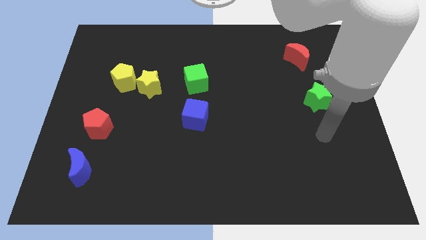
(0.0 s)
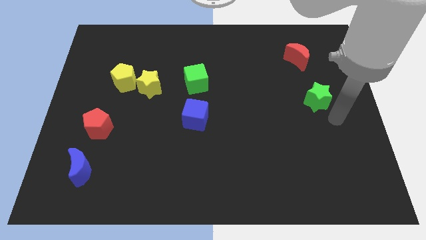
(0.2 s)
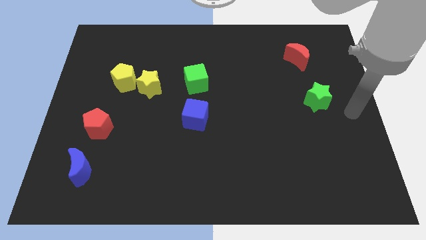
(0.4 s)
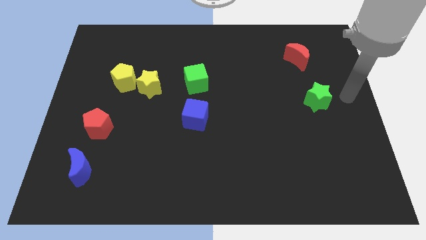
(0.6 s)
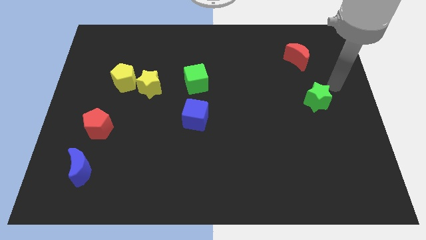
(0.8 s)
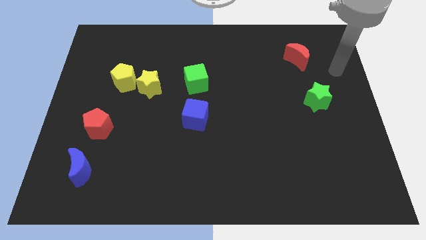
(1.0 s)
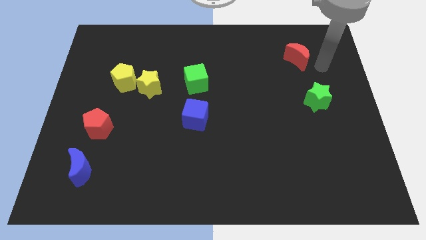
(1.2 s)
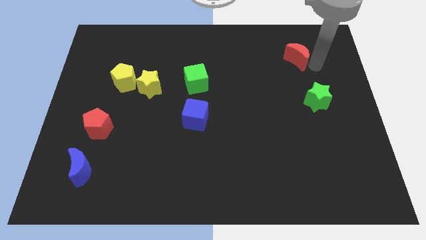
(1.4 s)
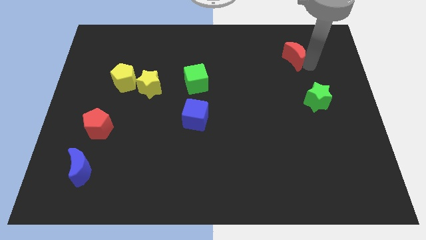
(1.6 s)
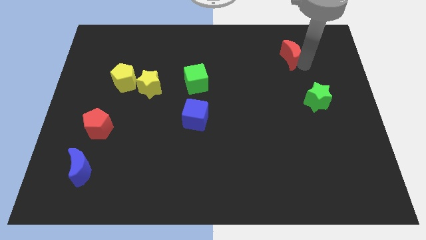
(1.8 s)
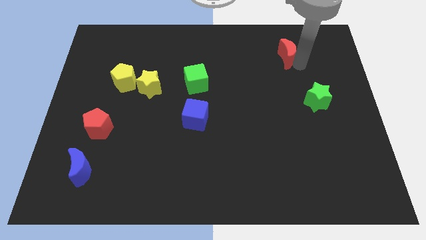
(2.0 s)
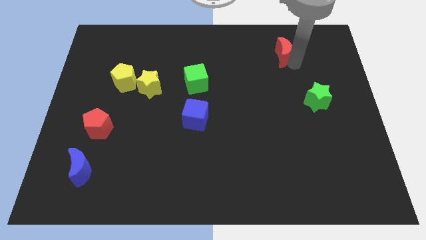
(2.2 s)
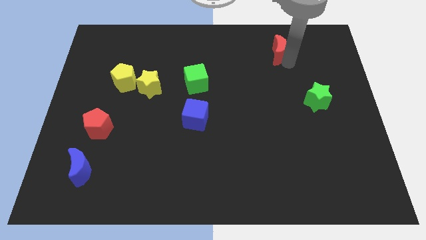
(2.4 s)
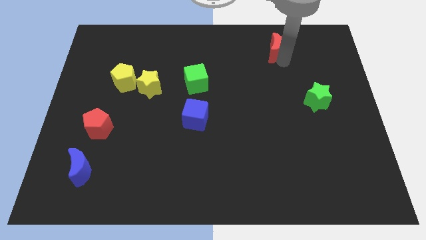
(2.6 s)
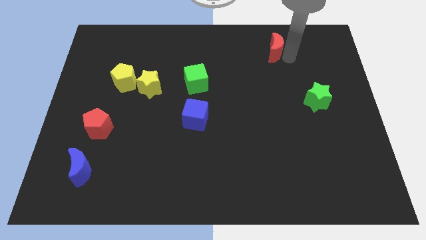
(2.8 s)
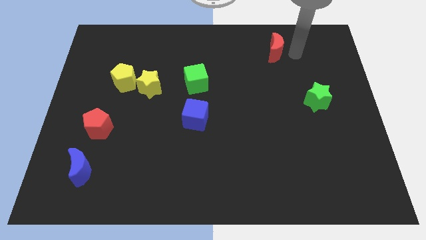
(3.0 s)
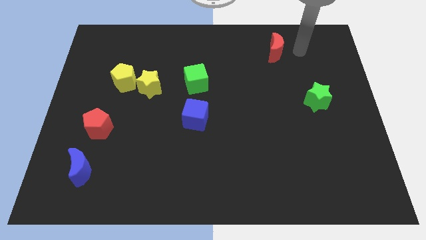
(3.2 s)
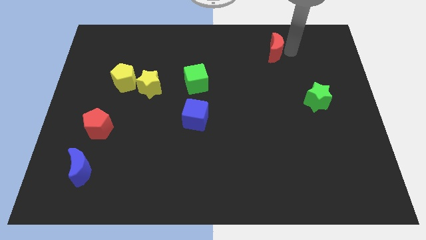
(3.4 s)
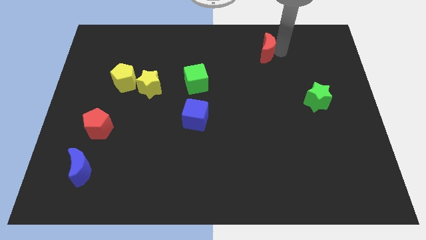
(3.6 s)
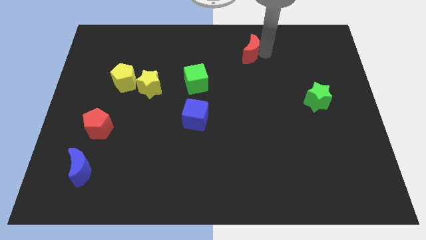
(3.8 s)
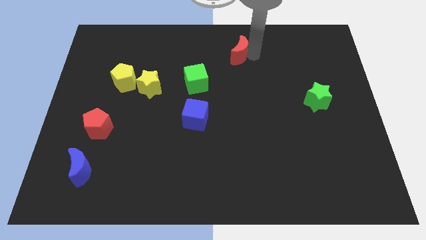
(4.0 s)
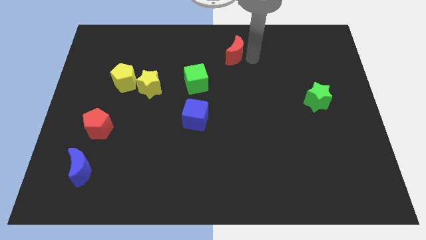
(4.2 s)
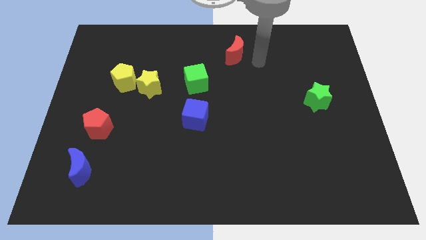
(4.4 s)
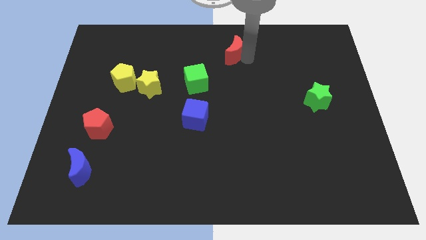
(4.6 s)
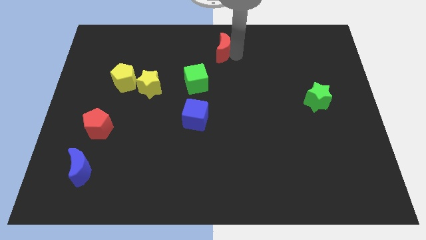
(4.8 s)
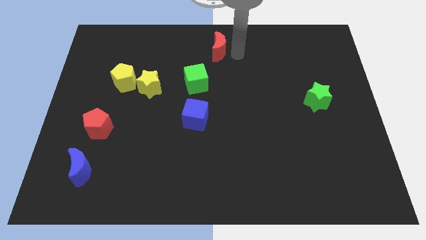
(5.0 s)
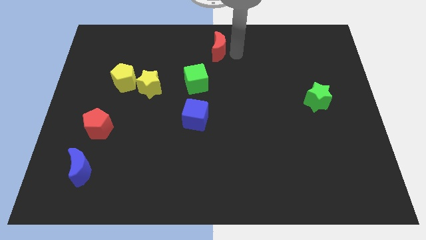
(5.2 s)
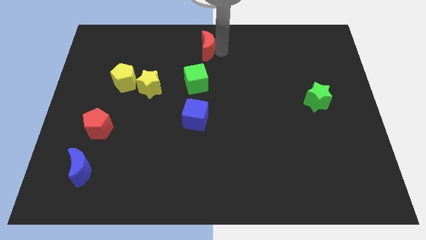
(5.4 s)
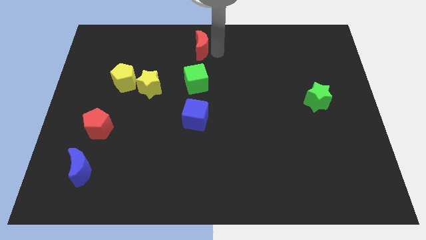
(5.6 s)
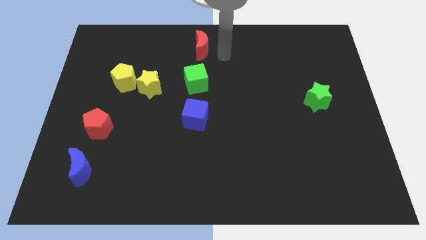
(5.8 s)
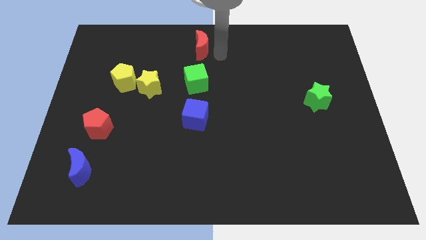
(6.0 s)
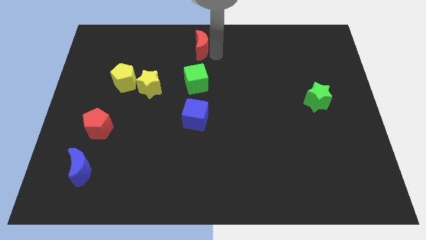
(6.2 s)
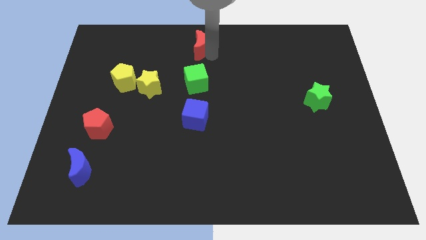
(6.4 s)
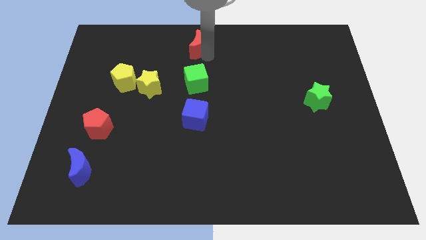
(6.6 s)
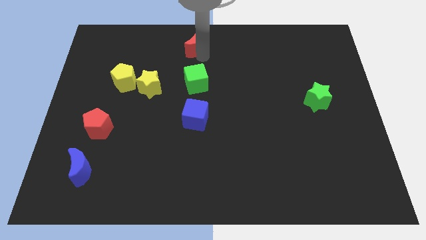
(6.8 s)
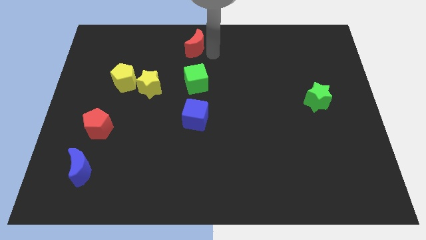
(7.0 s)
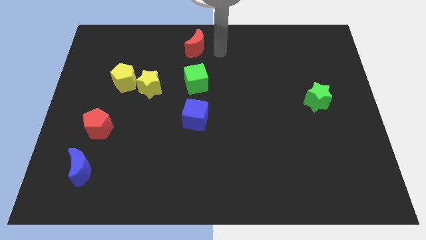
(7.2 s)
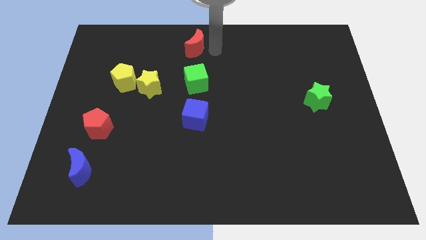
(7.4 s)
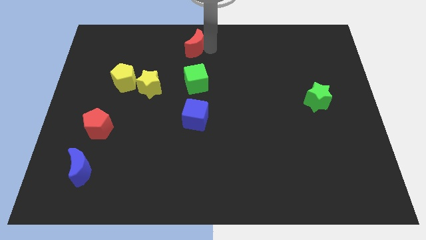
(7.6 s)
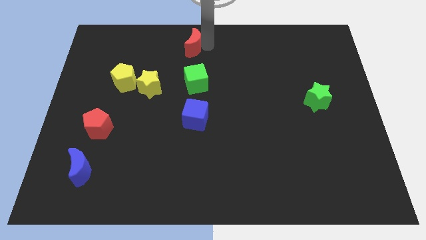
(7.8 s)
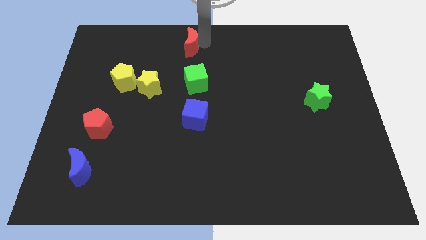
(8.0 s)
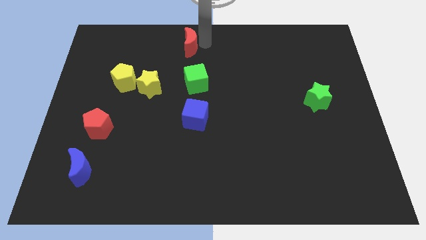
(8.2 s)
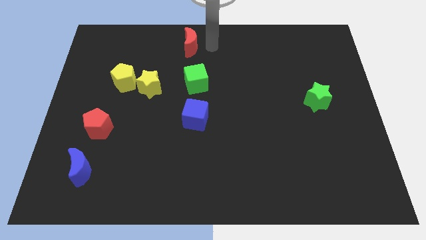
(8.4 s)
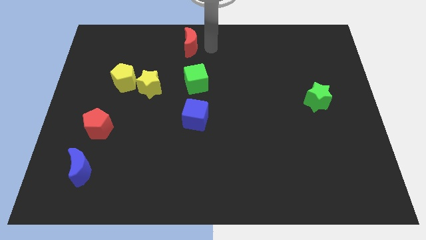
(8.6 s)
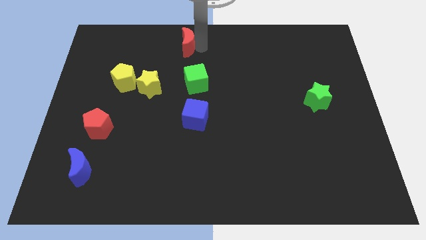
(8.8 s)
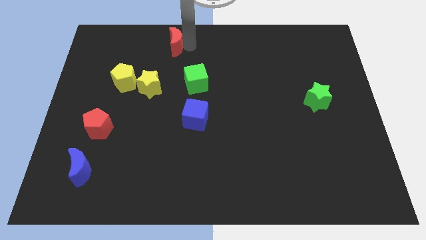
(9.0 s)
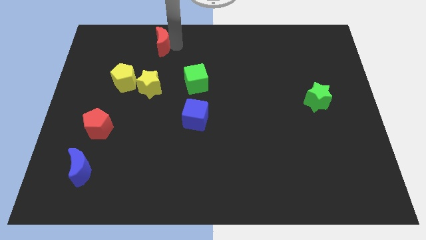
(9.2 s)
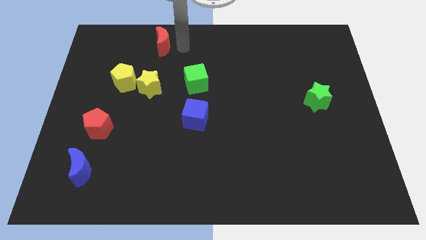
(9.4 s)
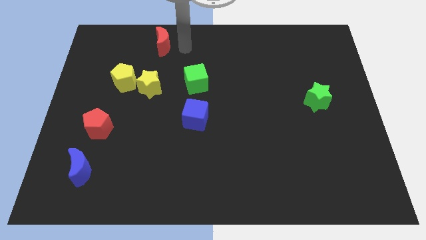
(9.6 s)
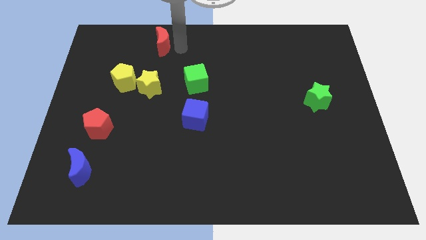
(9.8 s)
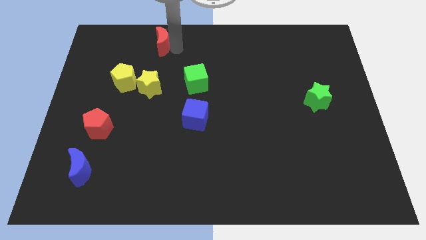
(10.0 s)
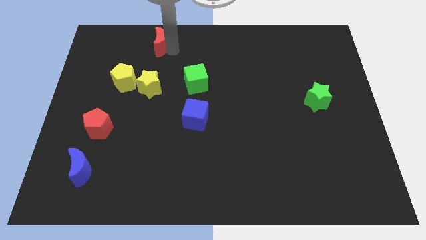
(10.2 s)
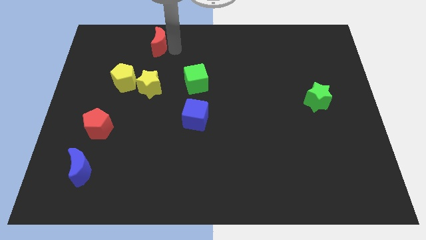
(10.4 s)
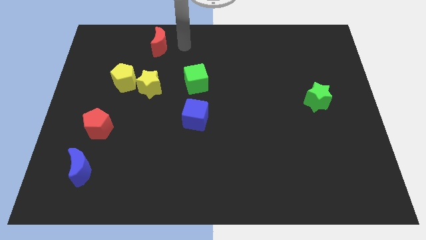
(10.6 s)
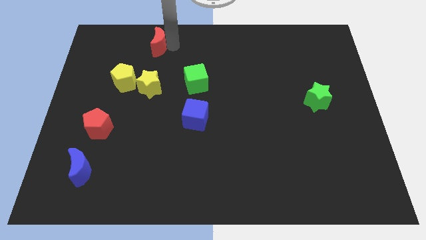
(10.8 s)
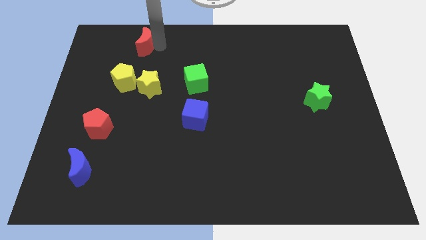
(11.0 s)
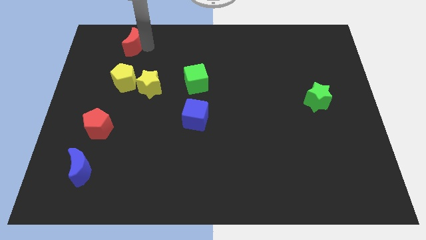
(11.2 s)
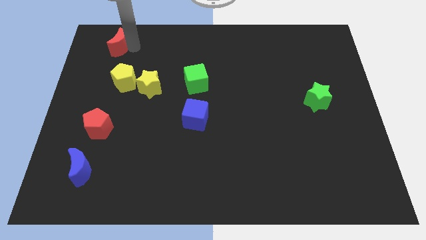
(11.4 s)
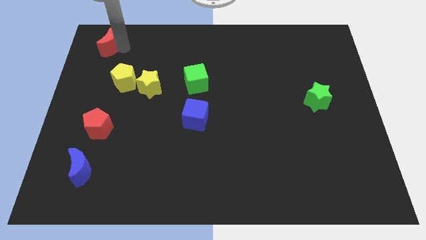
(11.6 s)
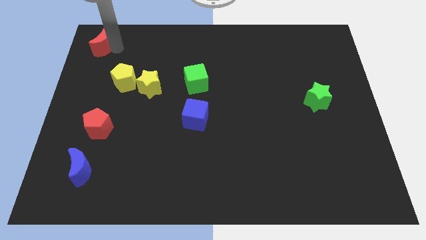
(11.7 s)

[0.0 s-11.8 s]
put the red moon to the upper left corner

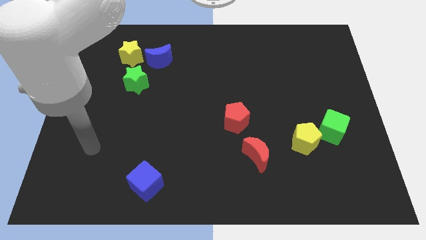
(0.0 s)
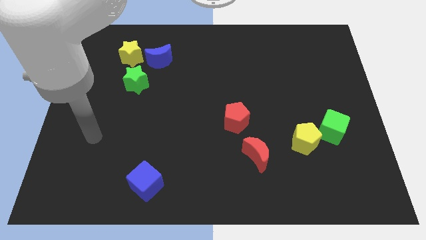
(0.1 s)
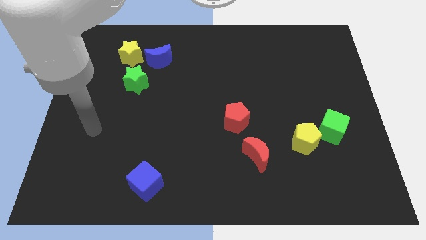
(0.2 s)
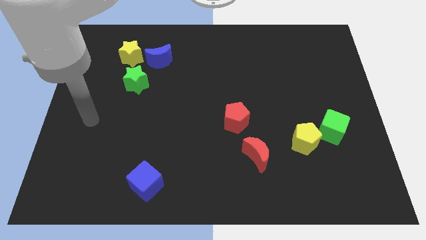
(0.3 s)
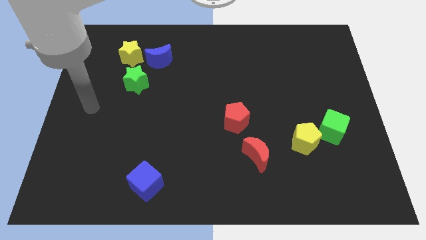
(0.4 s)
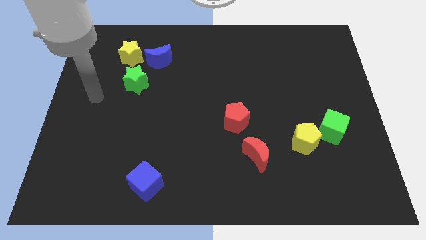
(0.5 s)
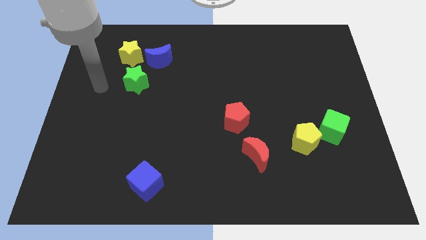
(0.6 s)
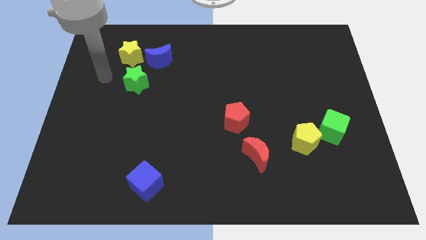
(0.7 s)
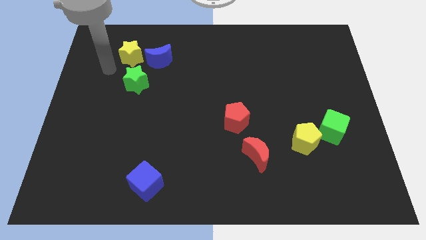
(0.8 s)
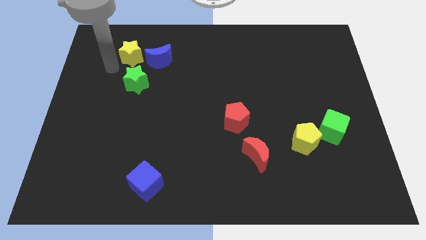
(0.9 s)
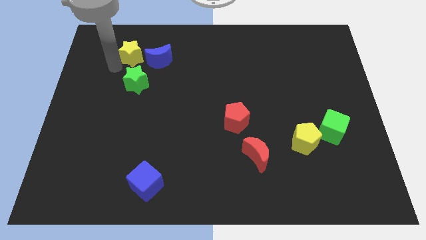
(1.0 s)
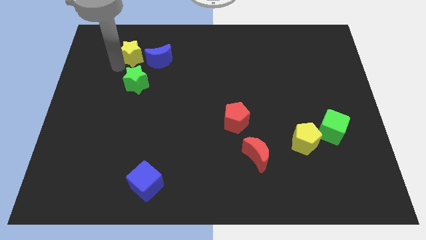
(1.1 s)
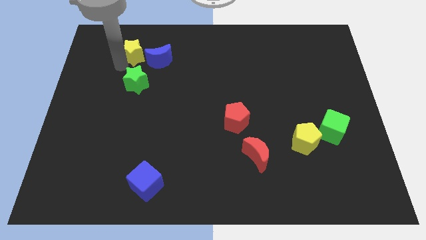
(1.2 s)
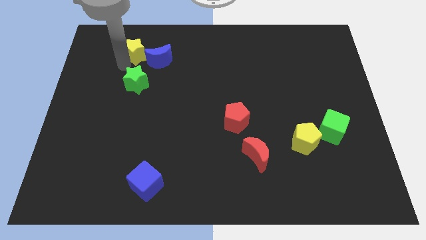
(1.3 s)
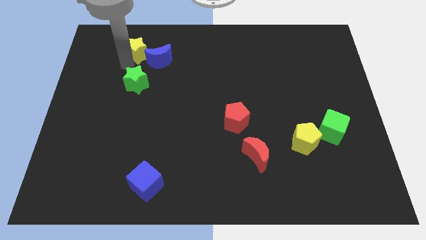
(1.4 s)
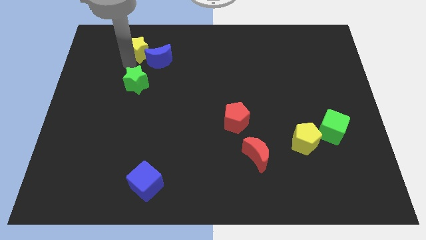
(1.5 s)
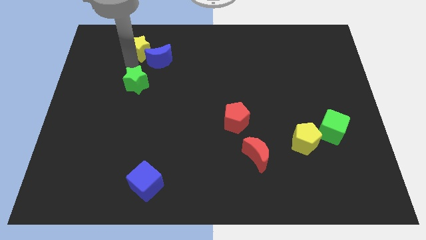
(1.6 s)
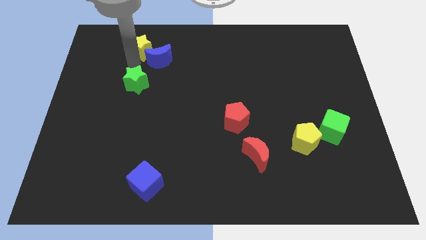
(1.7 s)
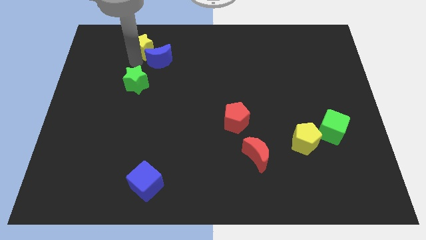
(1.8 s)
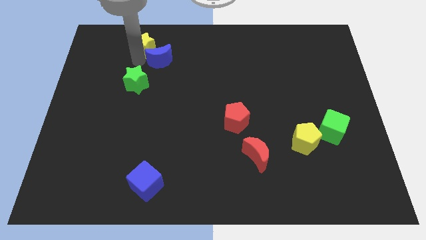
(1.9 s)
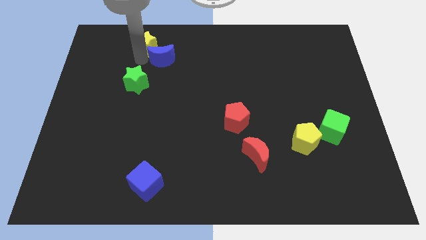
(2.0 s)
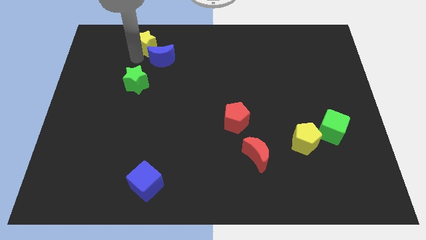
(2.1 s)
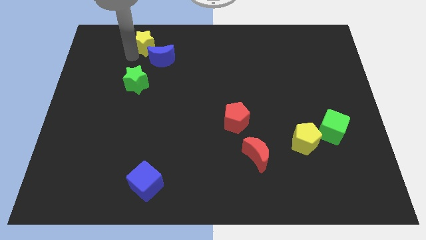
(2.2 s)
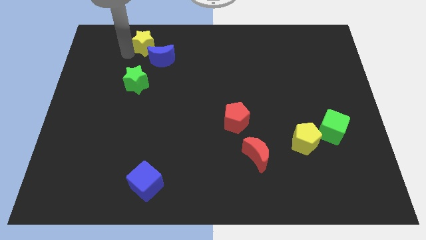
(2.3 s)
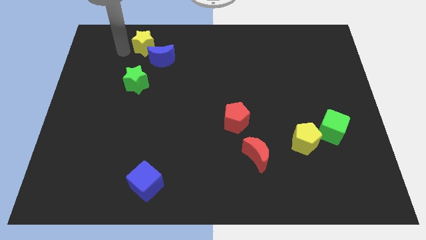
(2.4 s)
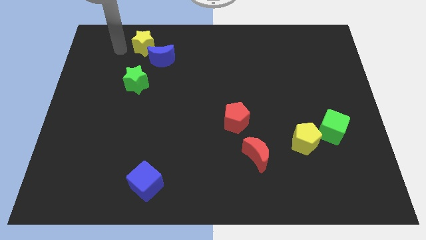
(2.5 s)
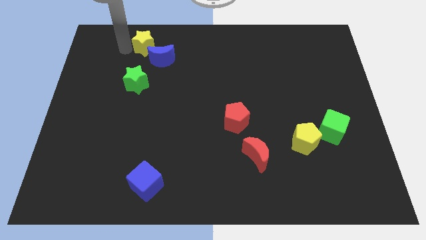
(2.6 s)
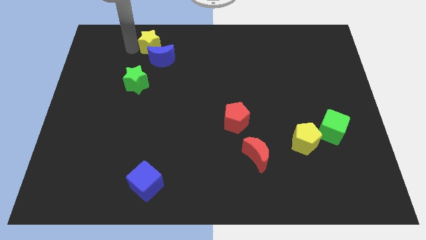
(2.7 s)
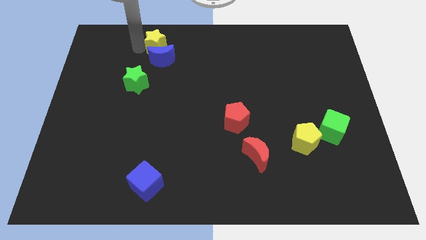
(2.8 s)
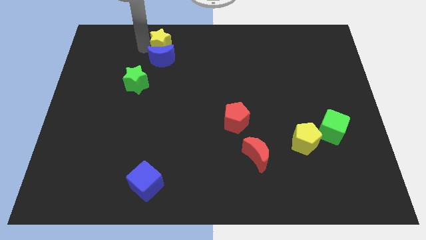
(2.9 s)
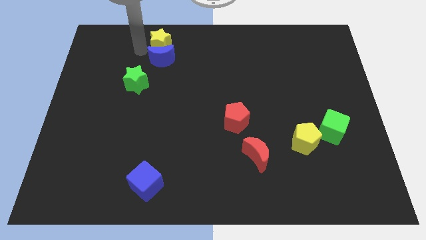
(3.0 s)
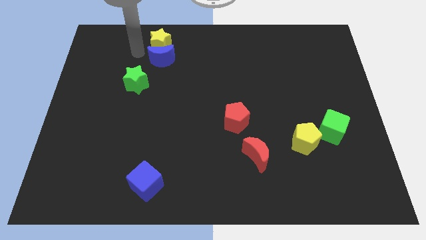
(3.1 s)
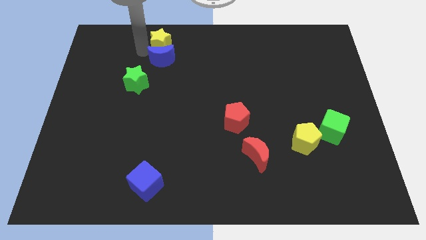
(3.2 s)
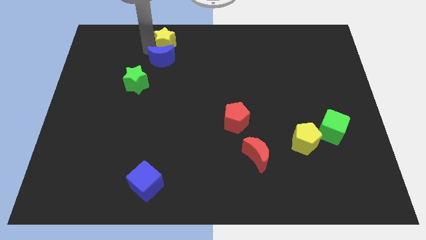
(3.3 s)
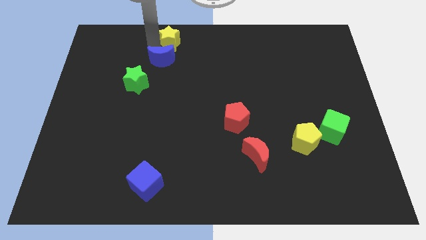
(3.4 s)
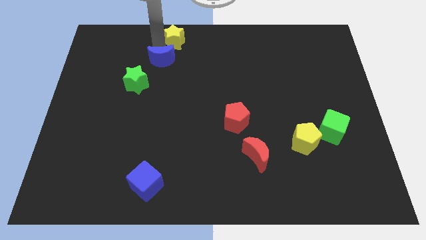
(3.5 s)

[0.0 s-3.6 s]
push the yellow star to the top
